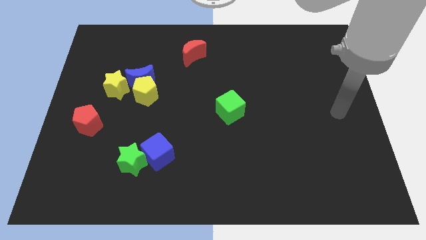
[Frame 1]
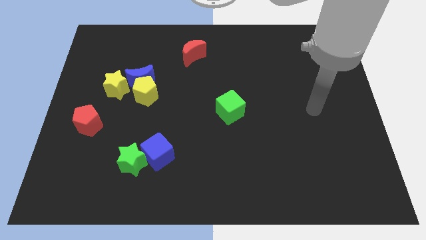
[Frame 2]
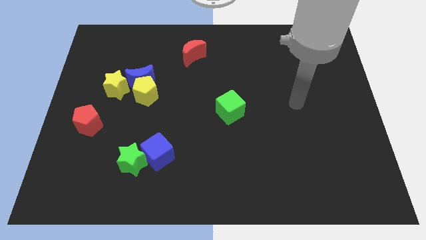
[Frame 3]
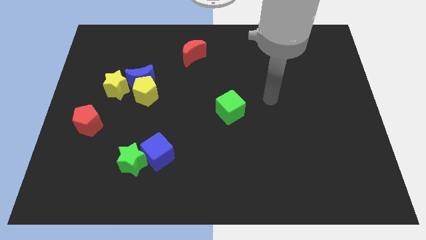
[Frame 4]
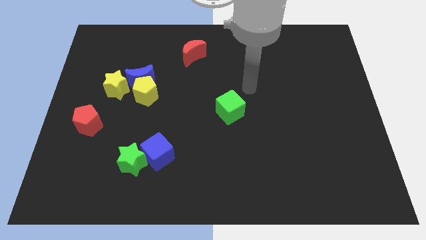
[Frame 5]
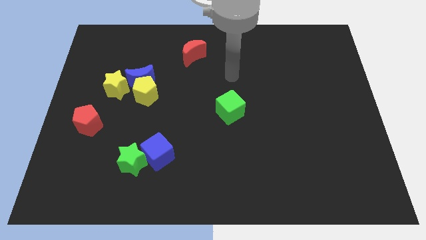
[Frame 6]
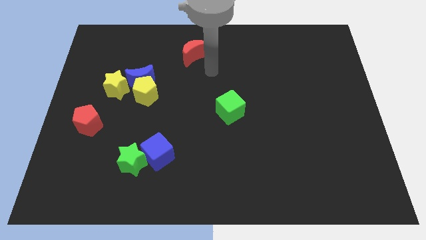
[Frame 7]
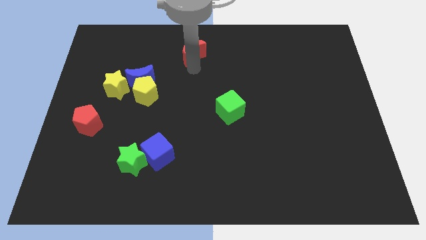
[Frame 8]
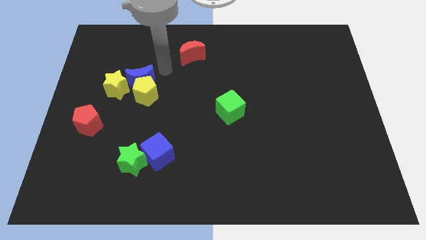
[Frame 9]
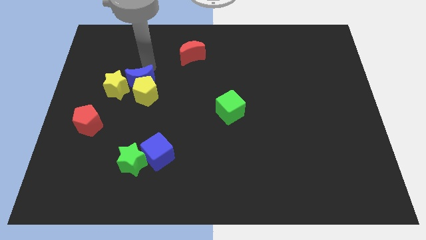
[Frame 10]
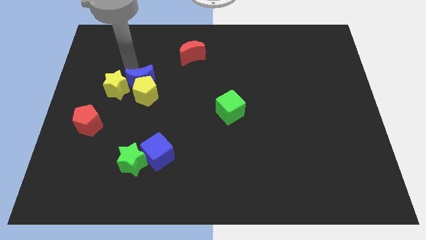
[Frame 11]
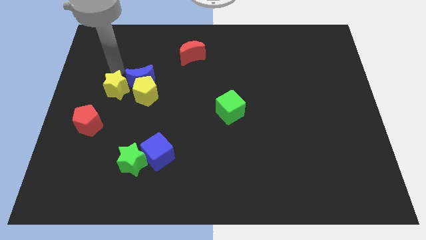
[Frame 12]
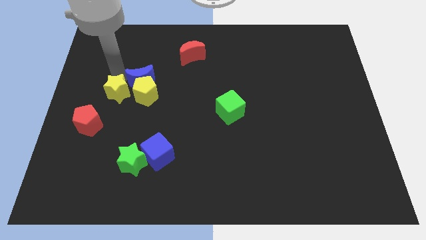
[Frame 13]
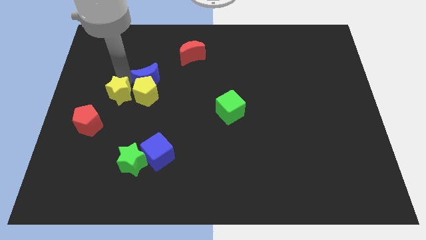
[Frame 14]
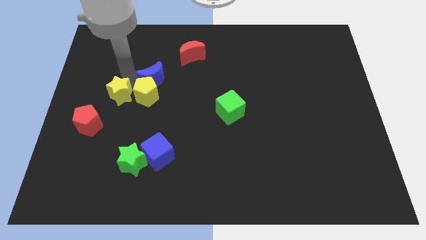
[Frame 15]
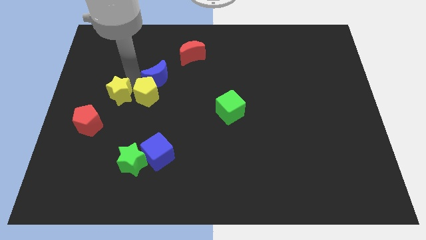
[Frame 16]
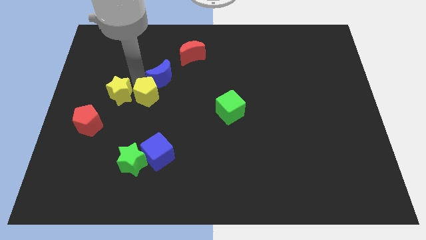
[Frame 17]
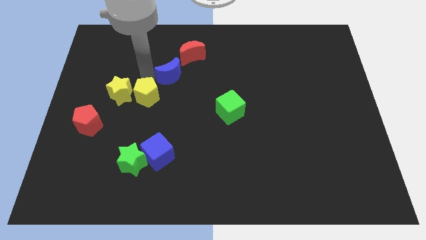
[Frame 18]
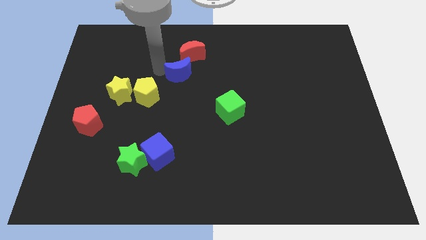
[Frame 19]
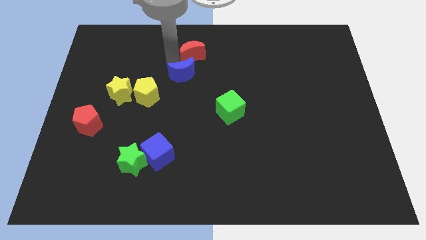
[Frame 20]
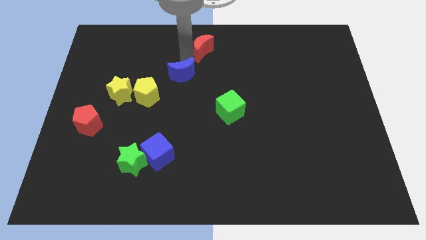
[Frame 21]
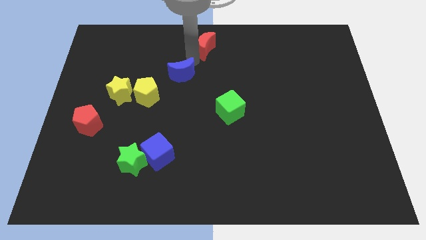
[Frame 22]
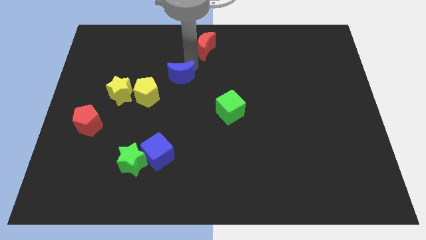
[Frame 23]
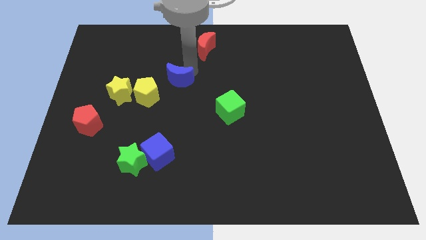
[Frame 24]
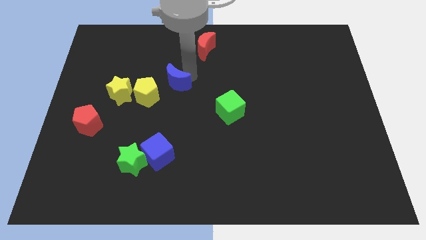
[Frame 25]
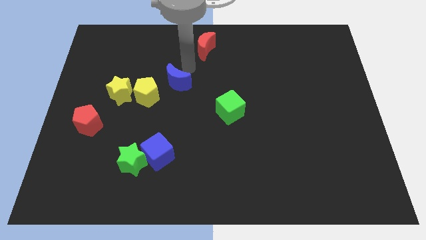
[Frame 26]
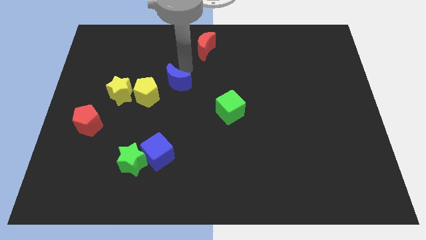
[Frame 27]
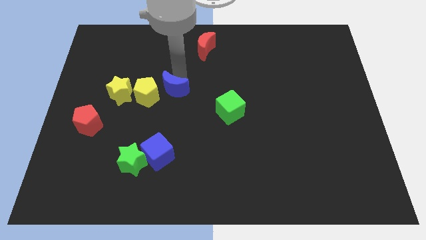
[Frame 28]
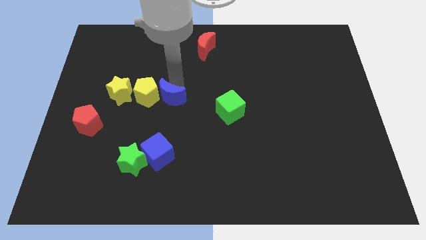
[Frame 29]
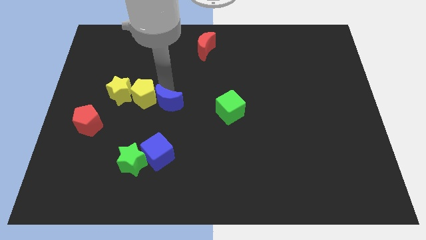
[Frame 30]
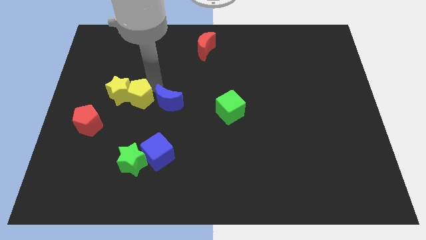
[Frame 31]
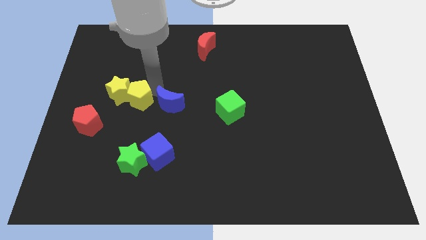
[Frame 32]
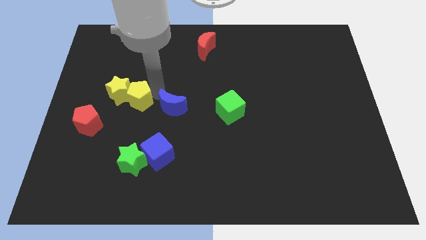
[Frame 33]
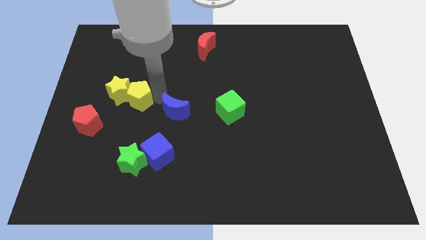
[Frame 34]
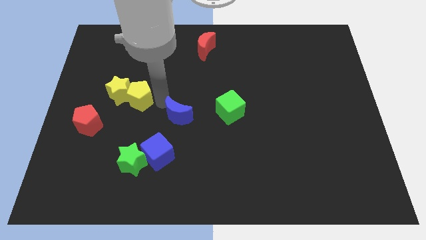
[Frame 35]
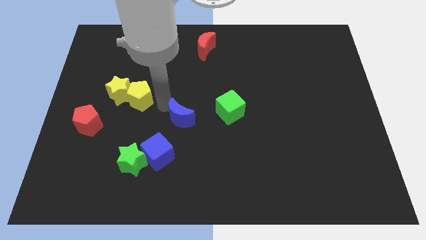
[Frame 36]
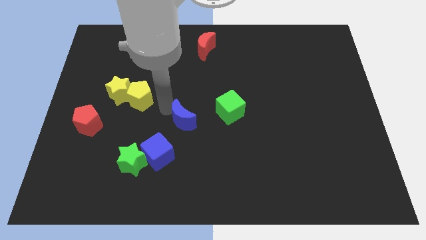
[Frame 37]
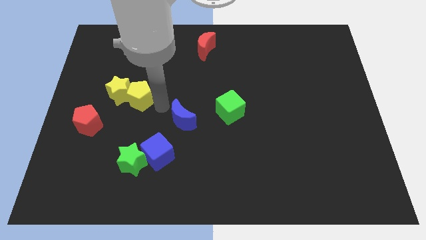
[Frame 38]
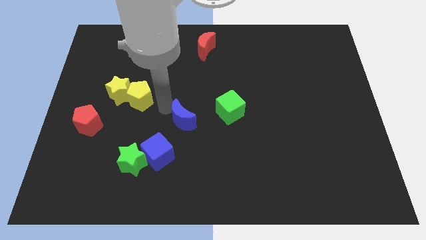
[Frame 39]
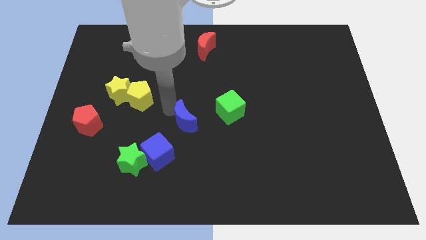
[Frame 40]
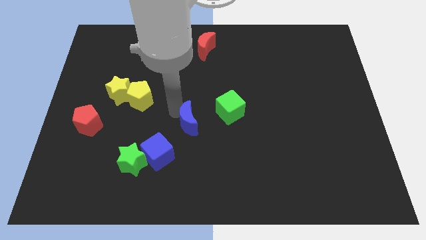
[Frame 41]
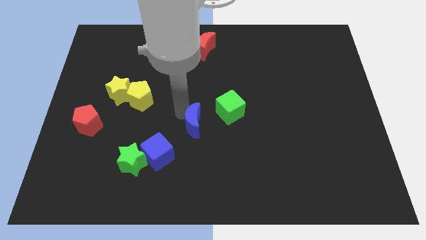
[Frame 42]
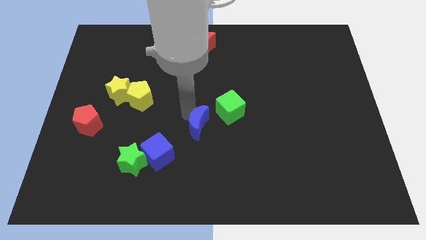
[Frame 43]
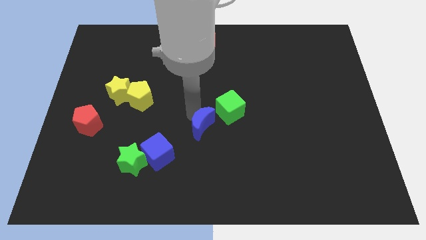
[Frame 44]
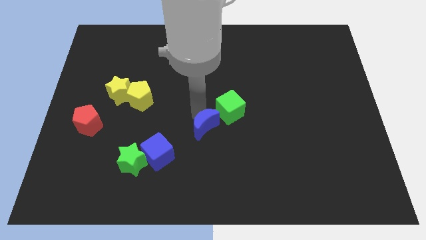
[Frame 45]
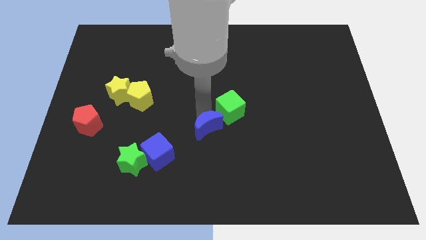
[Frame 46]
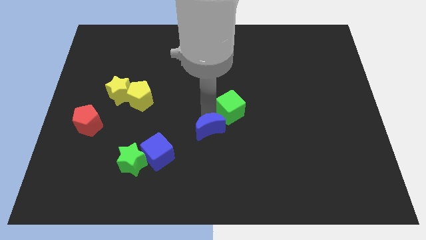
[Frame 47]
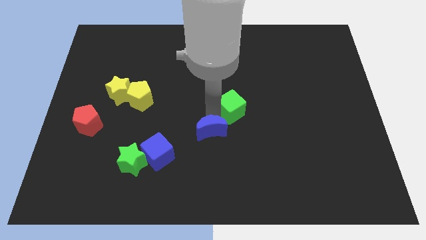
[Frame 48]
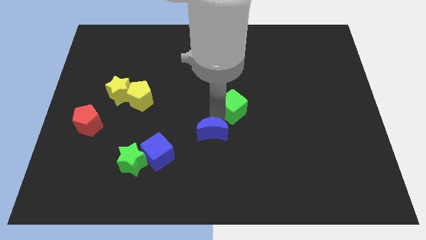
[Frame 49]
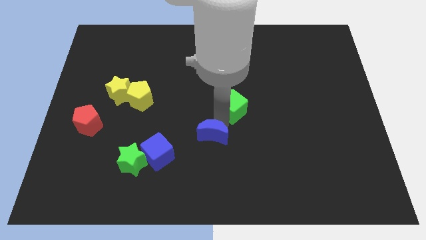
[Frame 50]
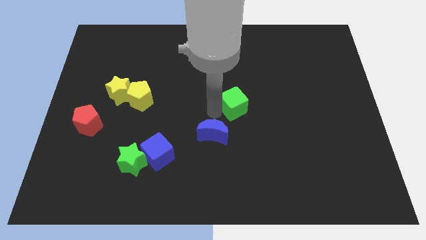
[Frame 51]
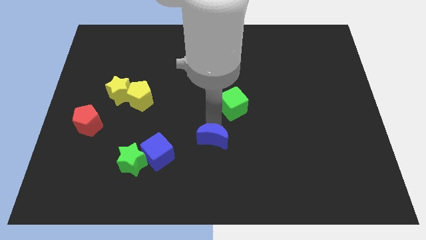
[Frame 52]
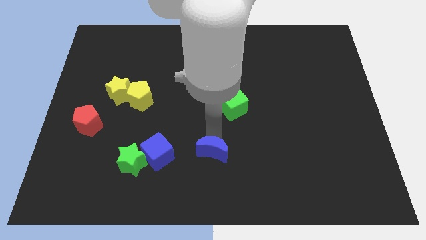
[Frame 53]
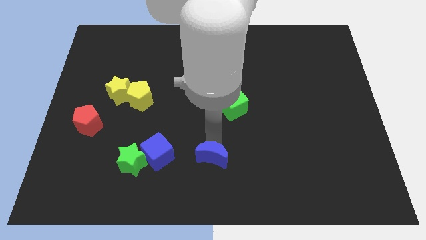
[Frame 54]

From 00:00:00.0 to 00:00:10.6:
slide the blue moon to the bottom

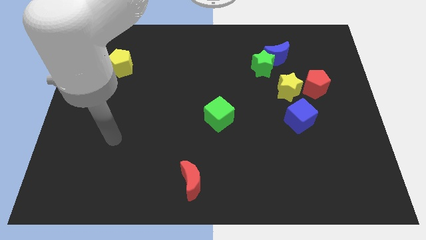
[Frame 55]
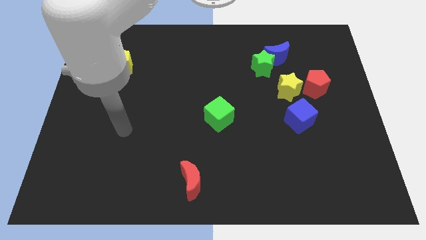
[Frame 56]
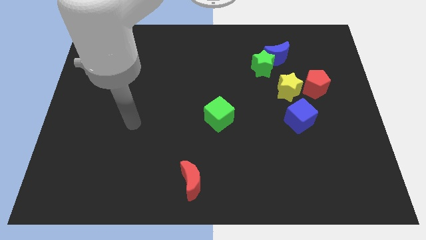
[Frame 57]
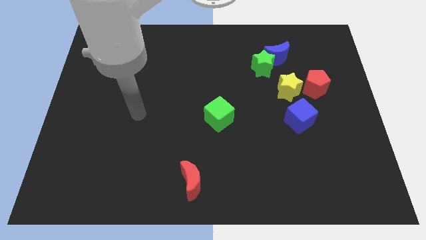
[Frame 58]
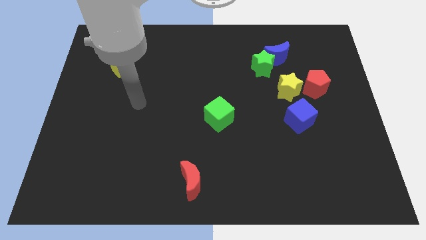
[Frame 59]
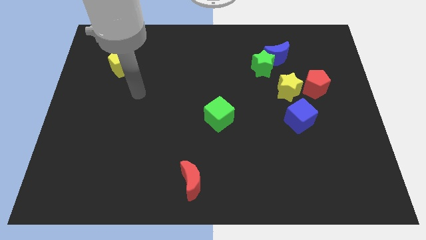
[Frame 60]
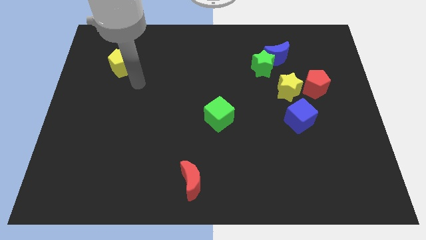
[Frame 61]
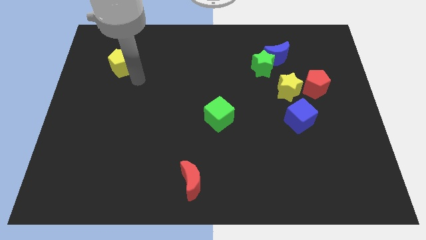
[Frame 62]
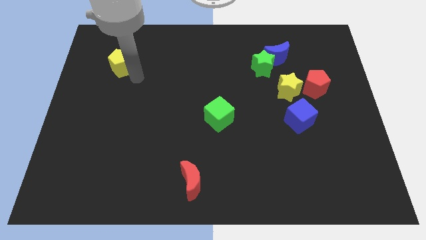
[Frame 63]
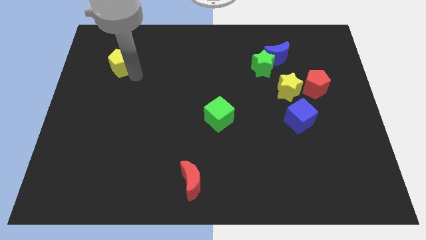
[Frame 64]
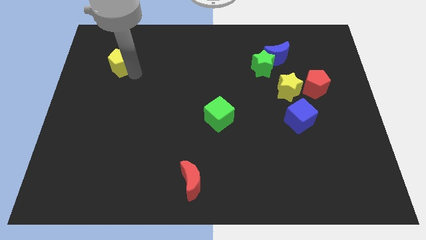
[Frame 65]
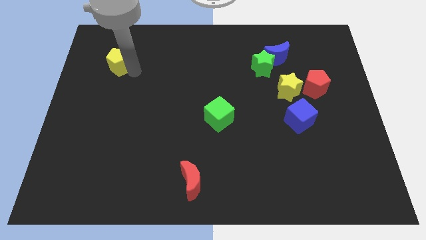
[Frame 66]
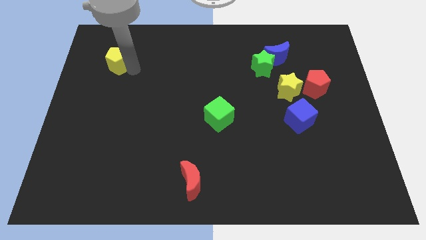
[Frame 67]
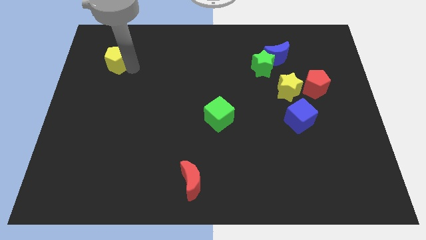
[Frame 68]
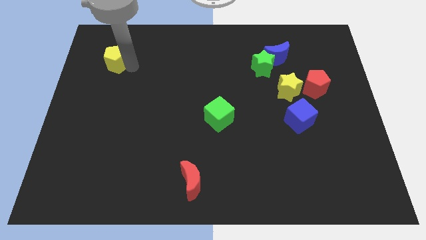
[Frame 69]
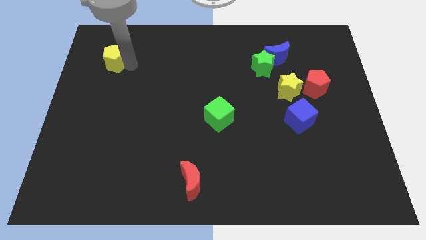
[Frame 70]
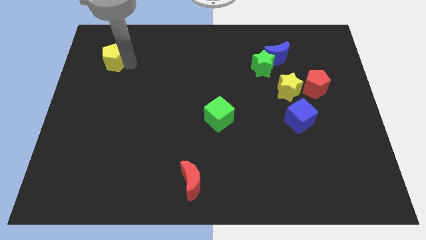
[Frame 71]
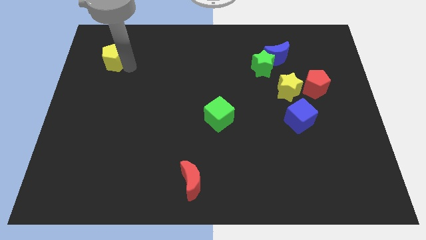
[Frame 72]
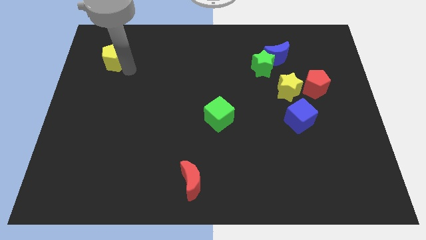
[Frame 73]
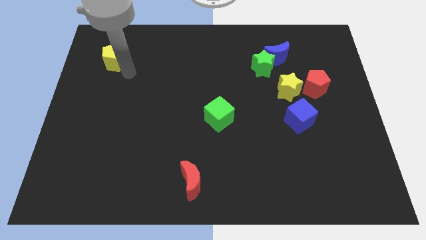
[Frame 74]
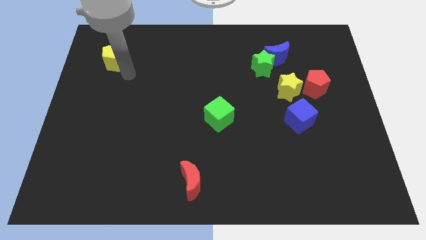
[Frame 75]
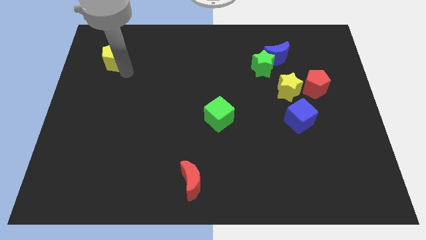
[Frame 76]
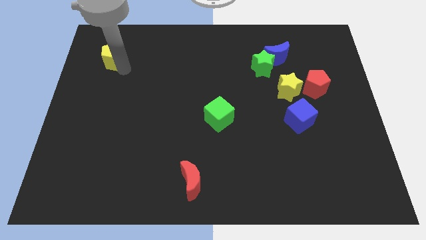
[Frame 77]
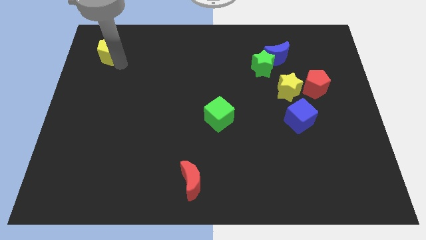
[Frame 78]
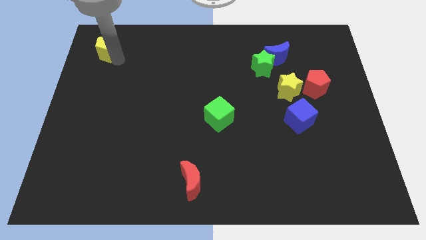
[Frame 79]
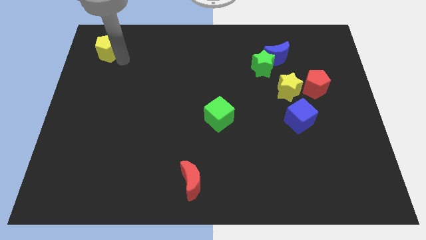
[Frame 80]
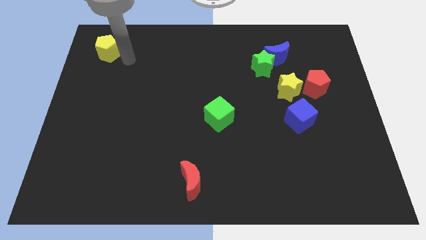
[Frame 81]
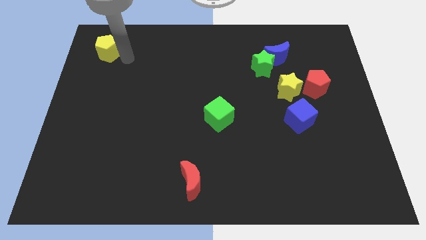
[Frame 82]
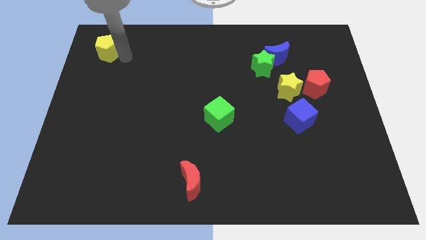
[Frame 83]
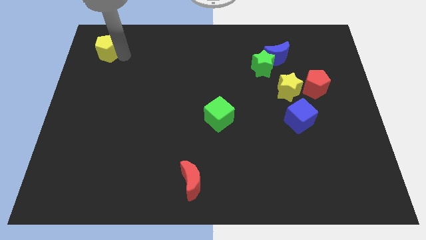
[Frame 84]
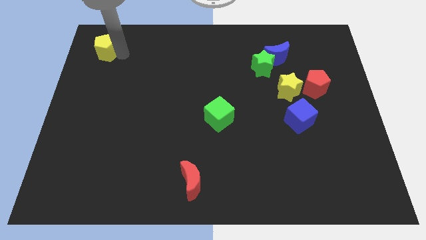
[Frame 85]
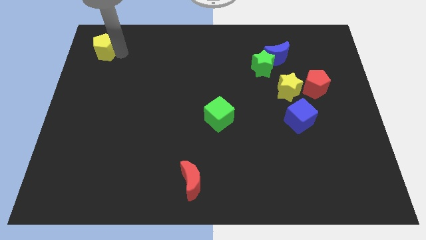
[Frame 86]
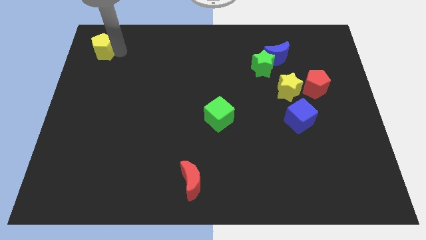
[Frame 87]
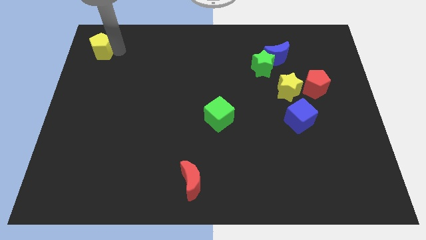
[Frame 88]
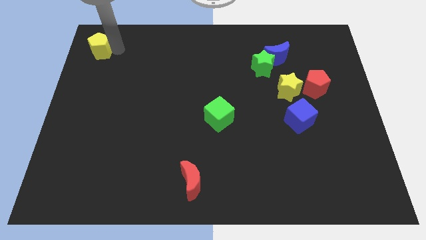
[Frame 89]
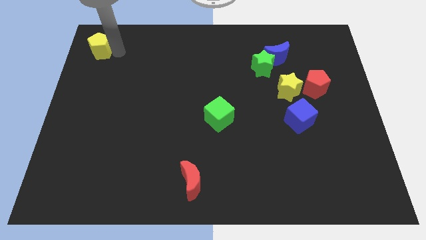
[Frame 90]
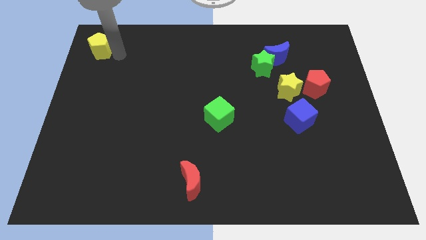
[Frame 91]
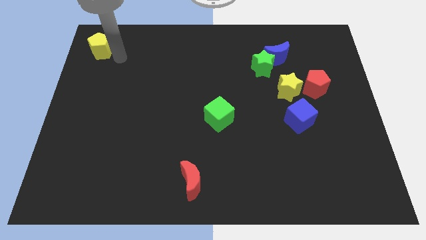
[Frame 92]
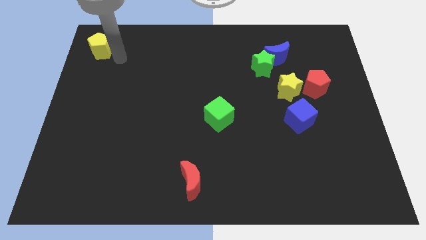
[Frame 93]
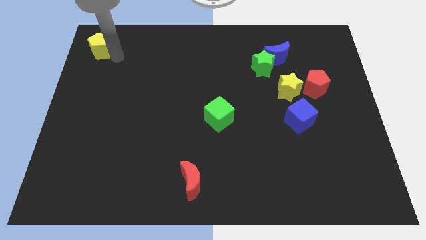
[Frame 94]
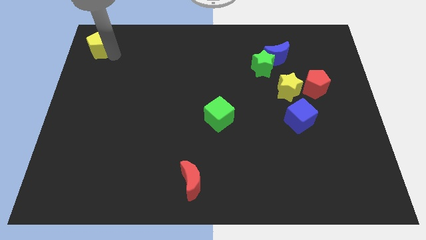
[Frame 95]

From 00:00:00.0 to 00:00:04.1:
push the yellow pentagon to the top left
